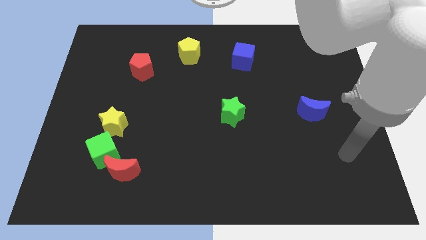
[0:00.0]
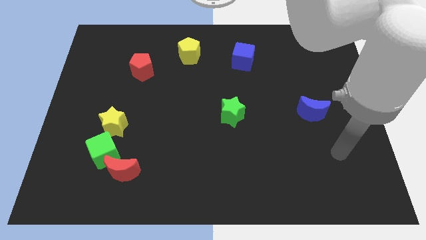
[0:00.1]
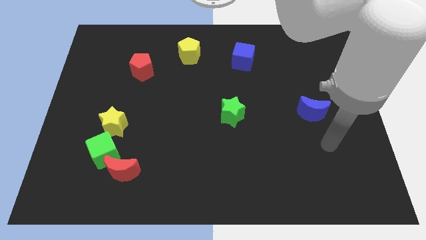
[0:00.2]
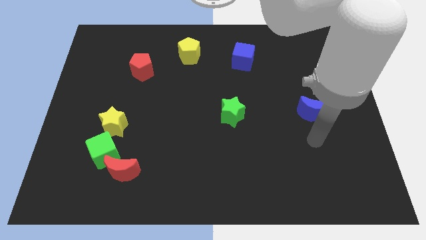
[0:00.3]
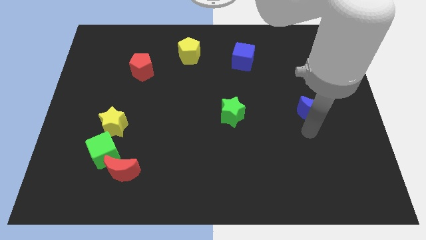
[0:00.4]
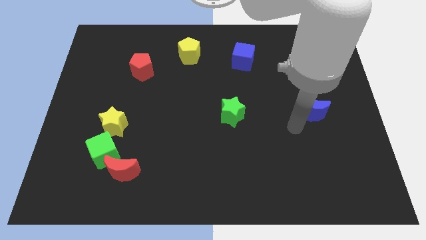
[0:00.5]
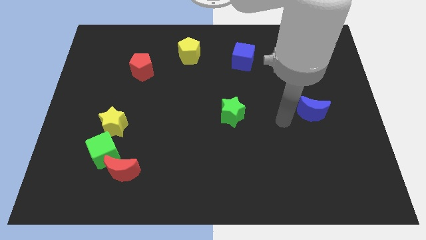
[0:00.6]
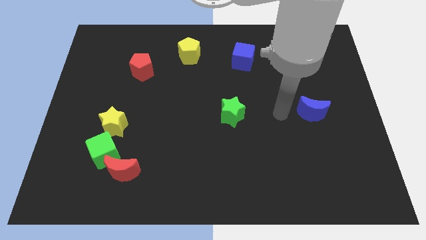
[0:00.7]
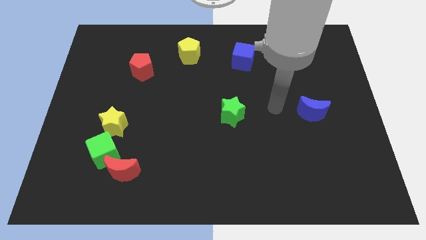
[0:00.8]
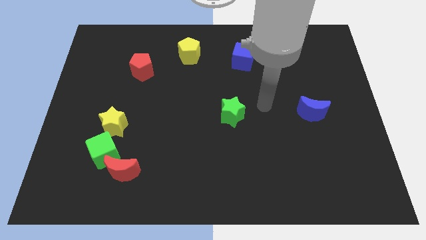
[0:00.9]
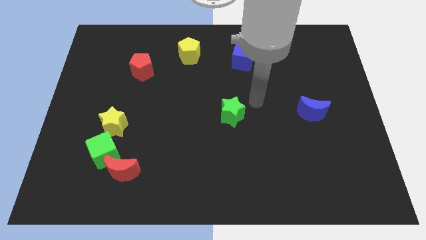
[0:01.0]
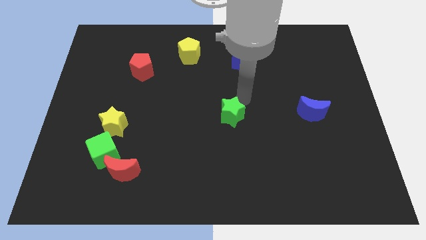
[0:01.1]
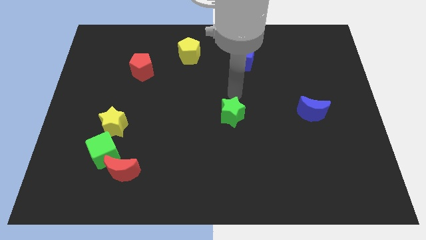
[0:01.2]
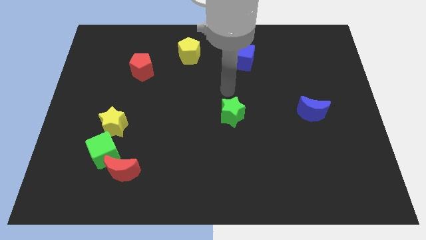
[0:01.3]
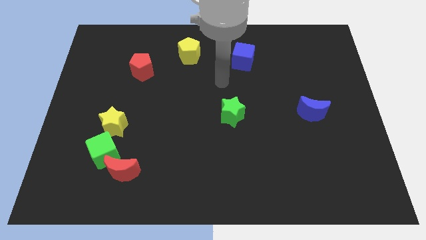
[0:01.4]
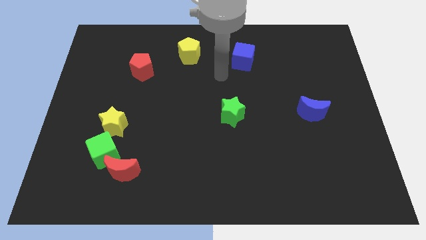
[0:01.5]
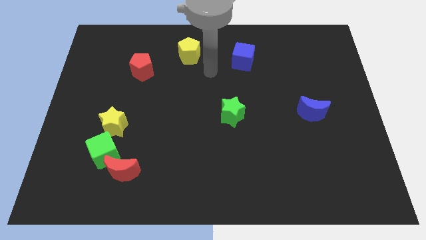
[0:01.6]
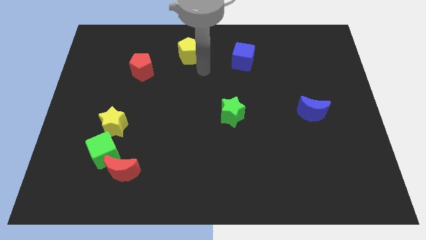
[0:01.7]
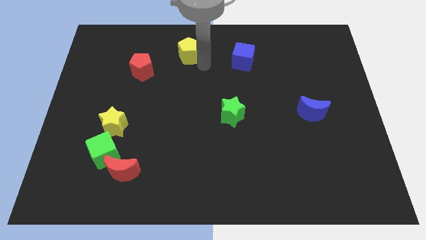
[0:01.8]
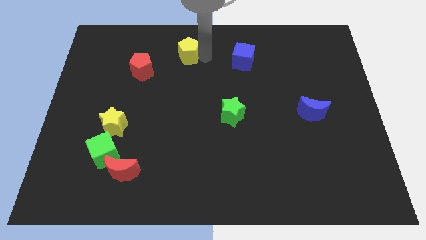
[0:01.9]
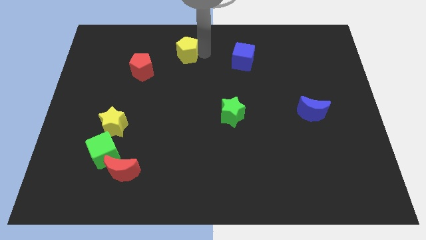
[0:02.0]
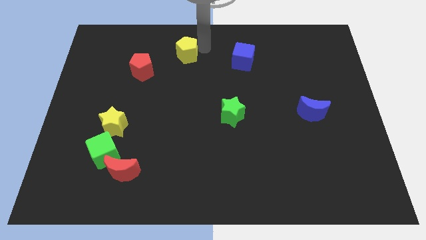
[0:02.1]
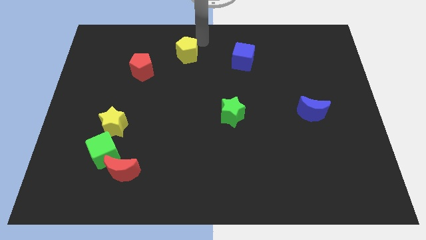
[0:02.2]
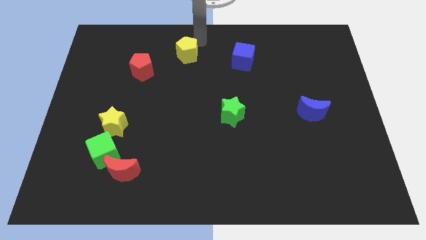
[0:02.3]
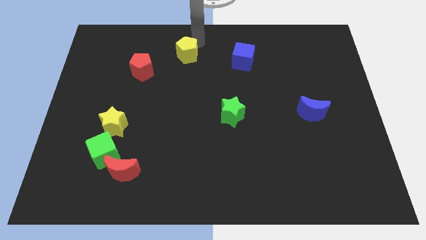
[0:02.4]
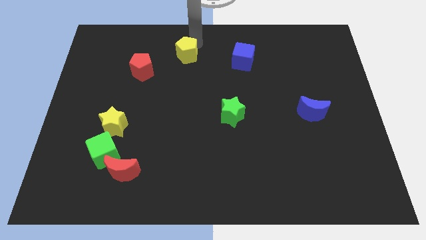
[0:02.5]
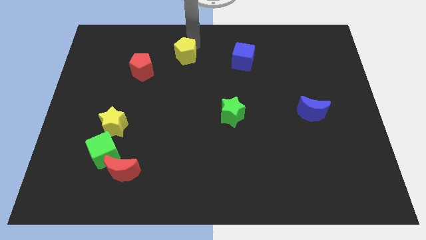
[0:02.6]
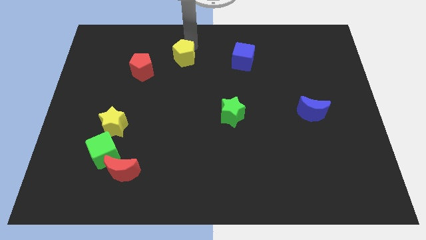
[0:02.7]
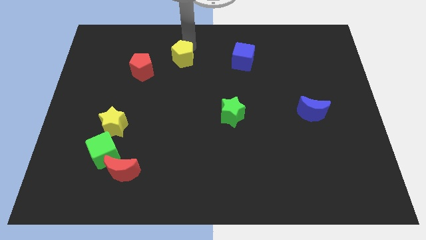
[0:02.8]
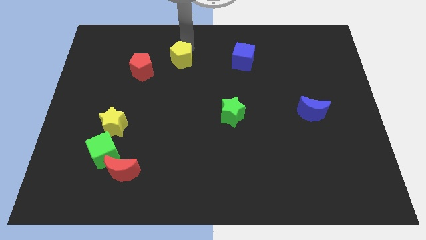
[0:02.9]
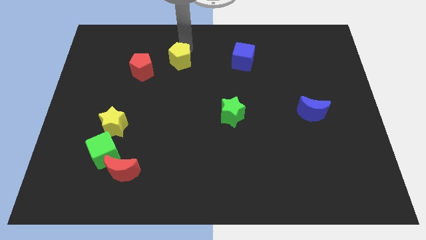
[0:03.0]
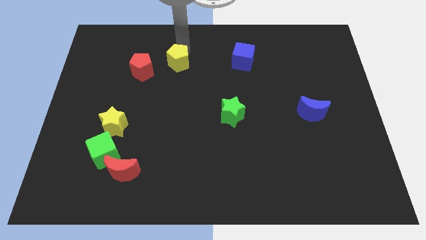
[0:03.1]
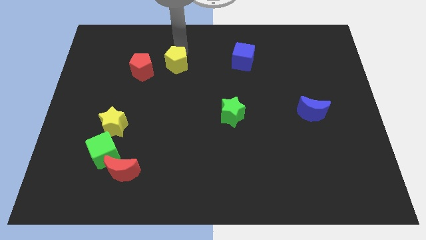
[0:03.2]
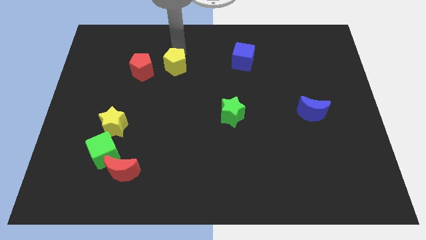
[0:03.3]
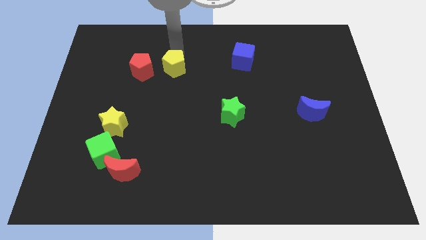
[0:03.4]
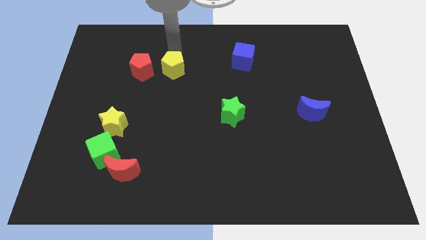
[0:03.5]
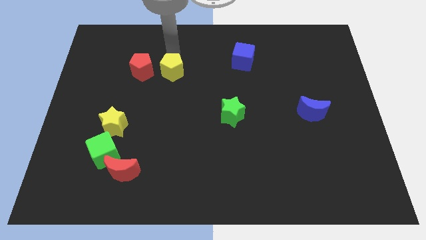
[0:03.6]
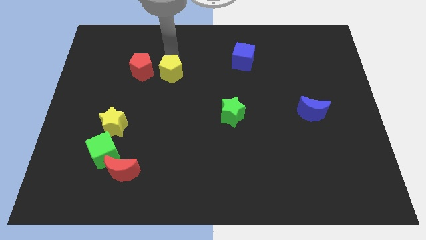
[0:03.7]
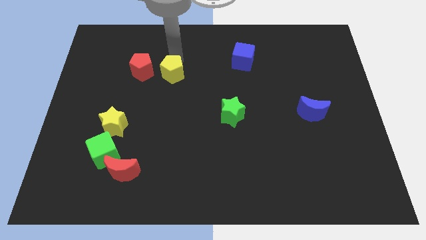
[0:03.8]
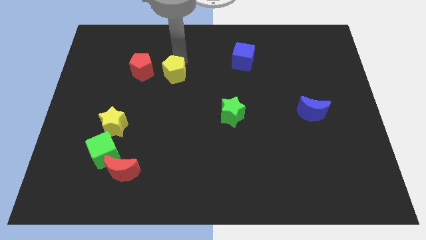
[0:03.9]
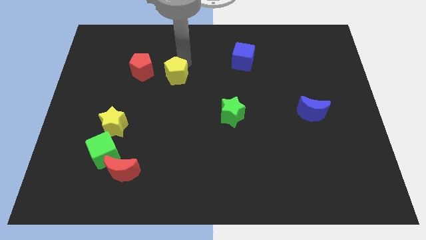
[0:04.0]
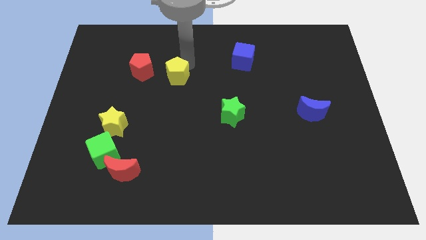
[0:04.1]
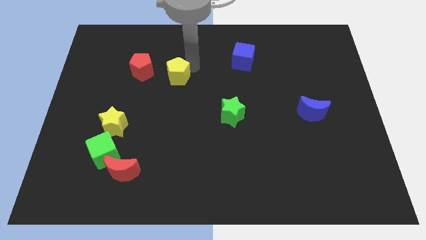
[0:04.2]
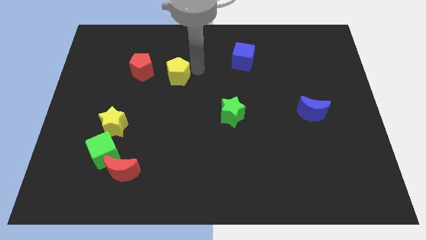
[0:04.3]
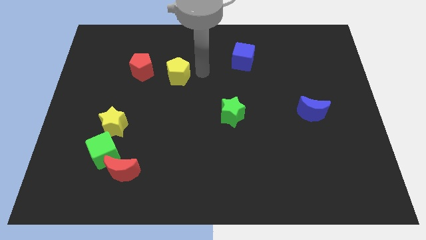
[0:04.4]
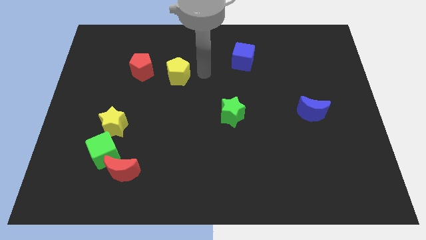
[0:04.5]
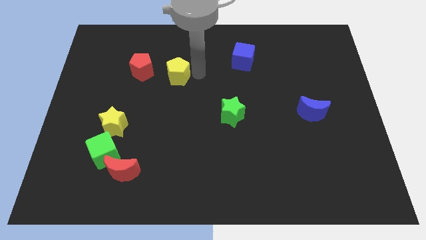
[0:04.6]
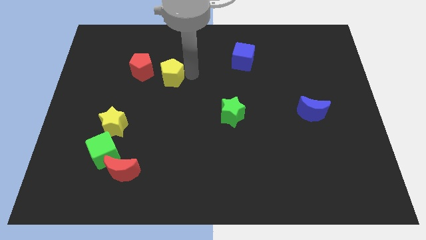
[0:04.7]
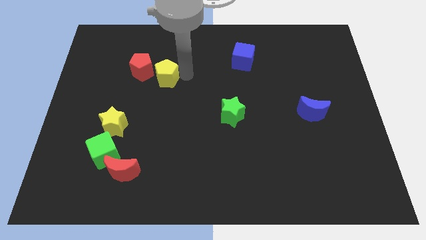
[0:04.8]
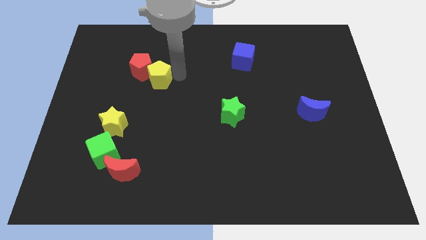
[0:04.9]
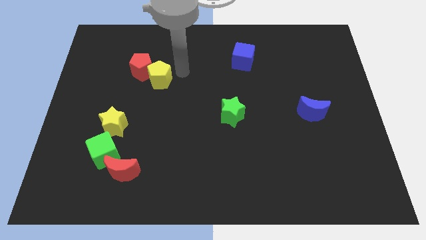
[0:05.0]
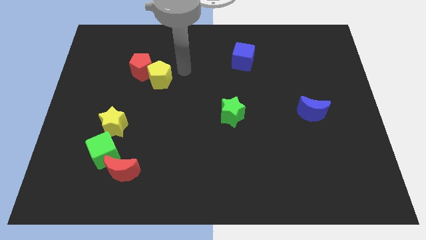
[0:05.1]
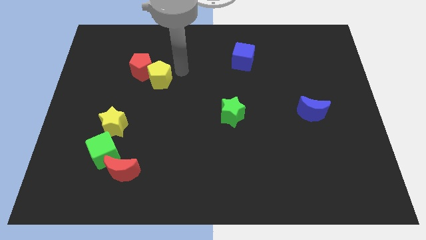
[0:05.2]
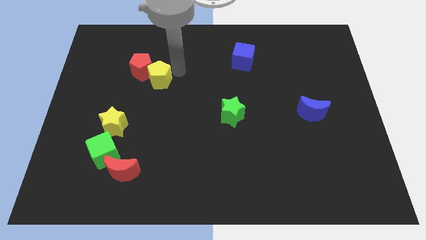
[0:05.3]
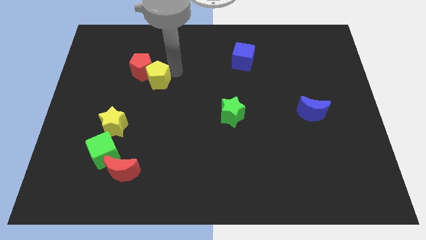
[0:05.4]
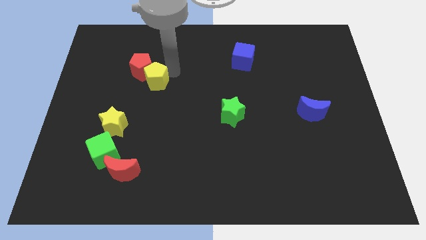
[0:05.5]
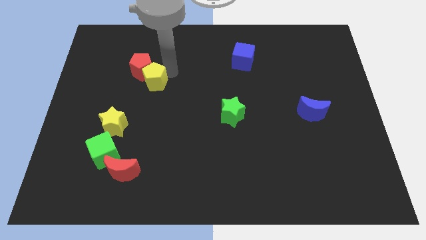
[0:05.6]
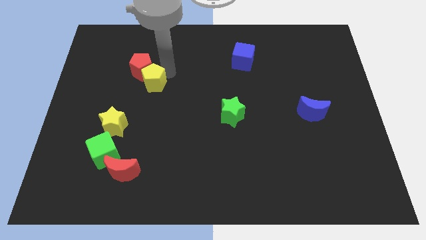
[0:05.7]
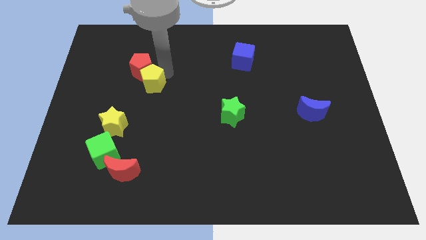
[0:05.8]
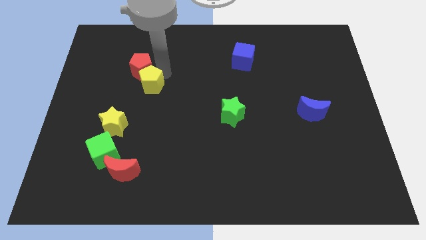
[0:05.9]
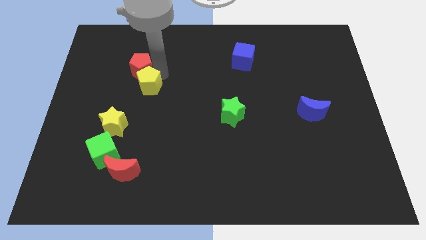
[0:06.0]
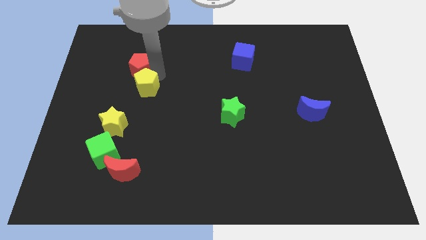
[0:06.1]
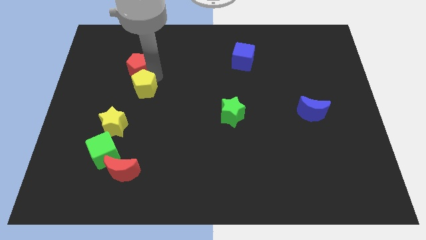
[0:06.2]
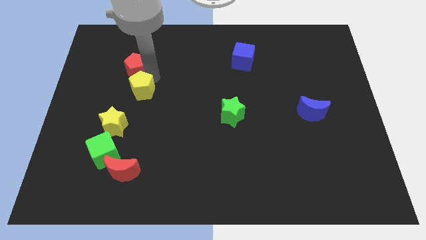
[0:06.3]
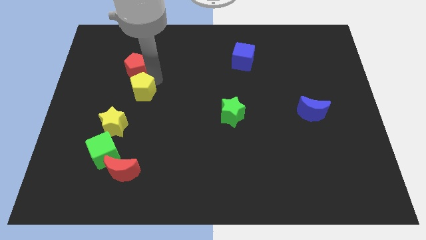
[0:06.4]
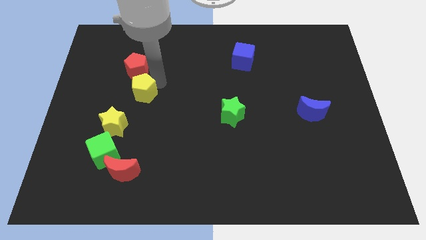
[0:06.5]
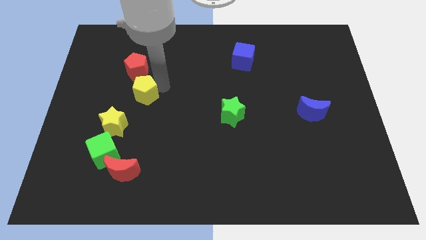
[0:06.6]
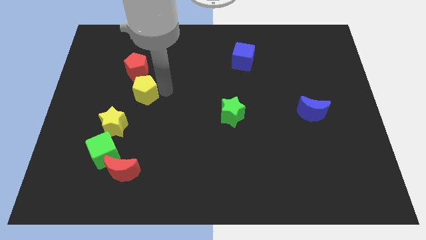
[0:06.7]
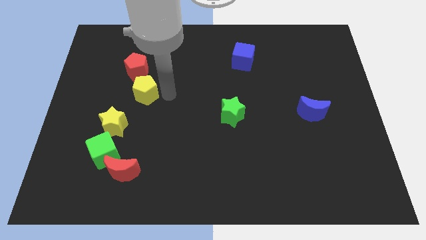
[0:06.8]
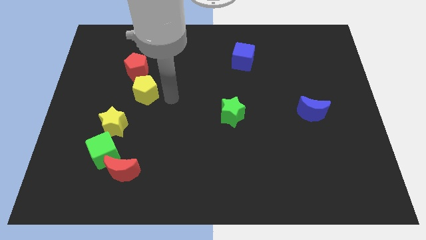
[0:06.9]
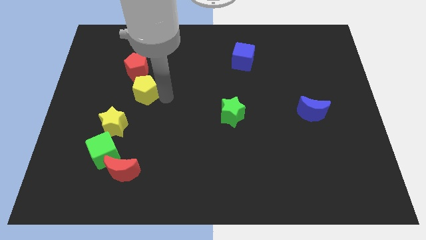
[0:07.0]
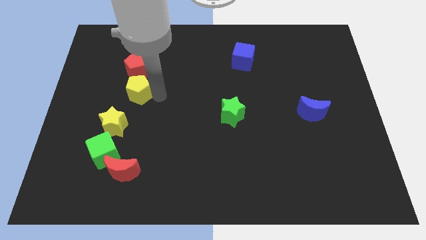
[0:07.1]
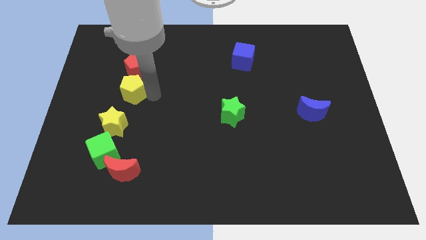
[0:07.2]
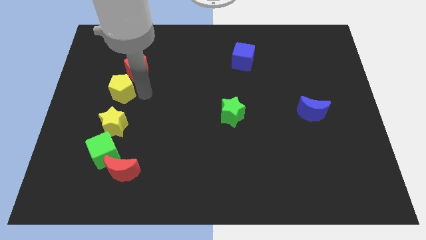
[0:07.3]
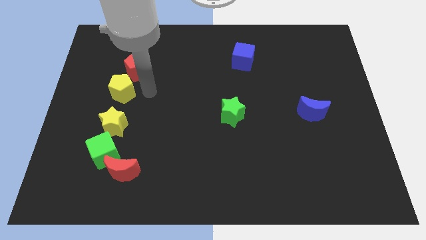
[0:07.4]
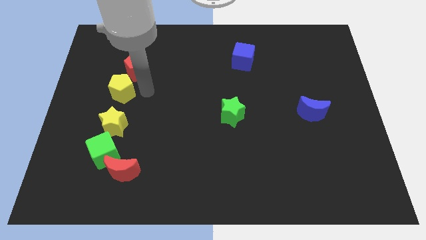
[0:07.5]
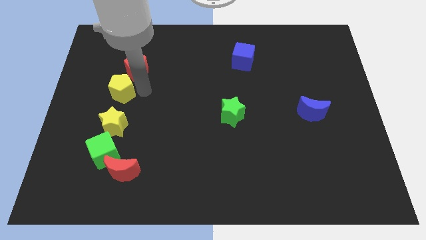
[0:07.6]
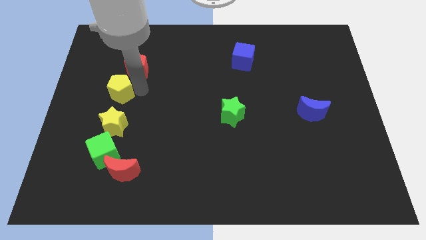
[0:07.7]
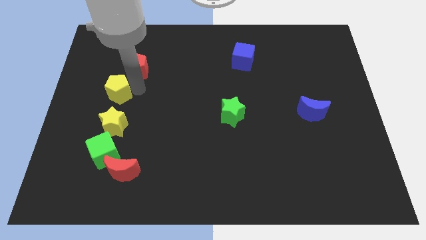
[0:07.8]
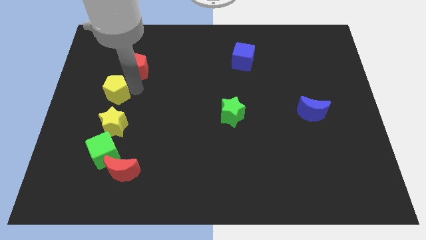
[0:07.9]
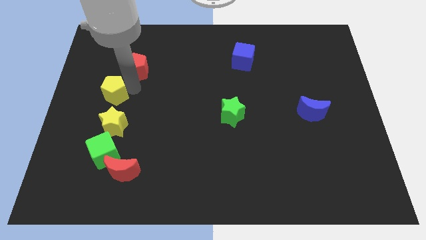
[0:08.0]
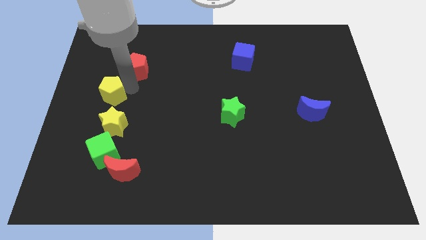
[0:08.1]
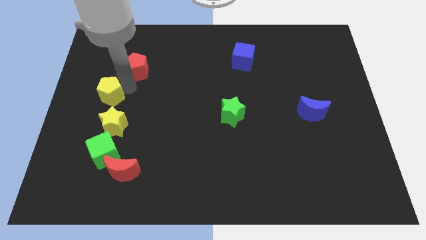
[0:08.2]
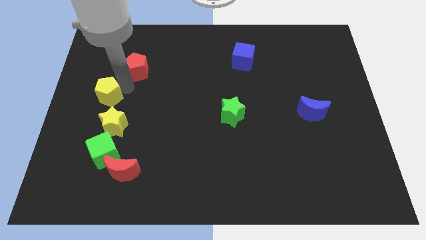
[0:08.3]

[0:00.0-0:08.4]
put the yellow pentagon to the left side
